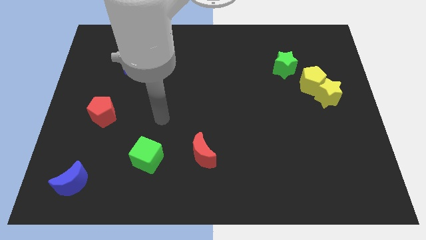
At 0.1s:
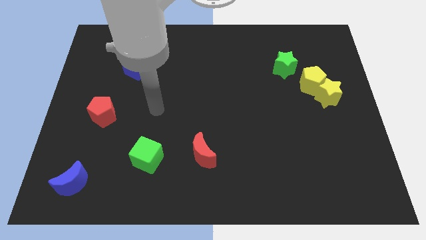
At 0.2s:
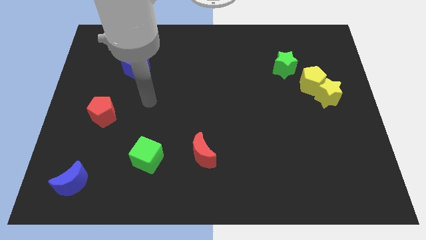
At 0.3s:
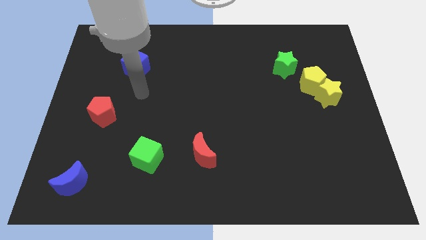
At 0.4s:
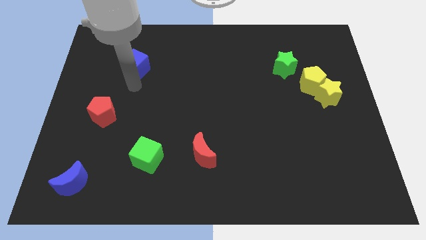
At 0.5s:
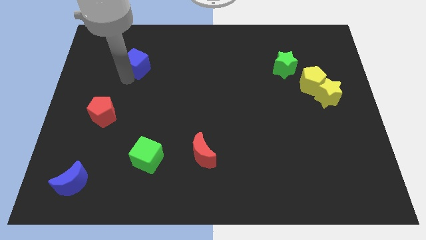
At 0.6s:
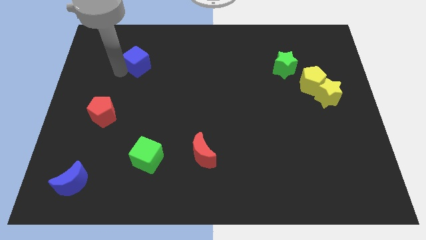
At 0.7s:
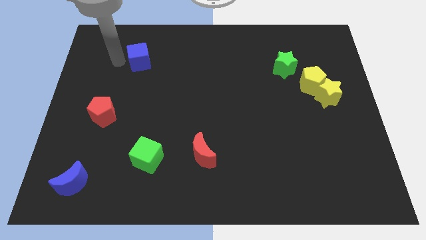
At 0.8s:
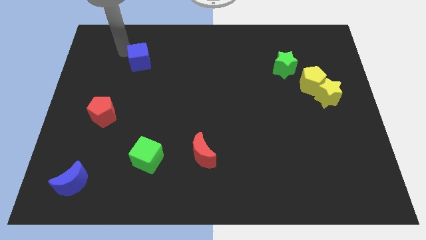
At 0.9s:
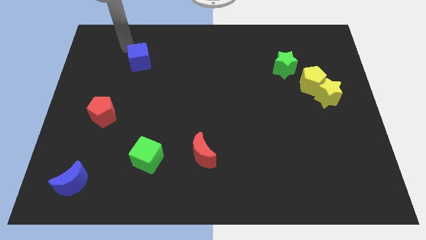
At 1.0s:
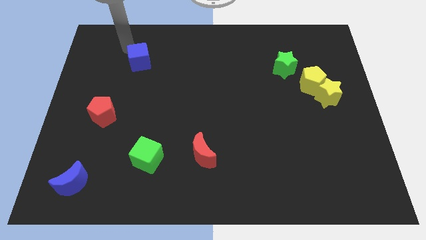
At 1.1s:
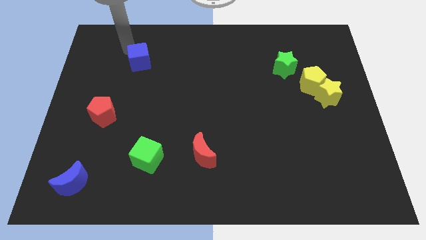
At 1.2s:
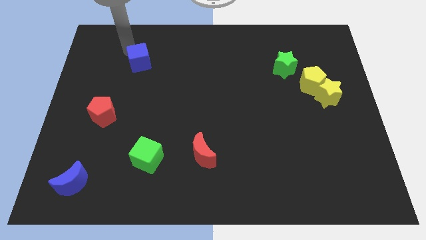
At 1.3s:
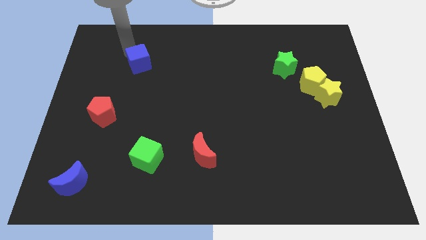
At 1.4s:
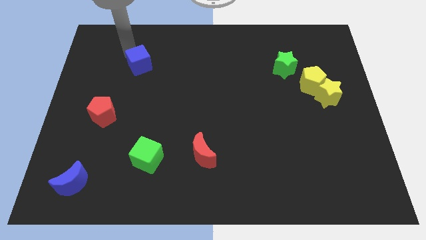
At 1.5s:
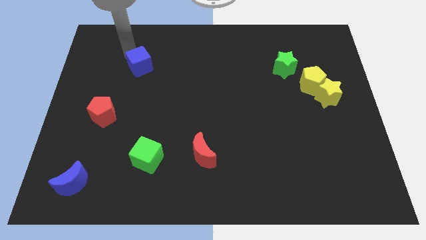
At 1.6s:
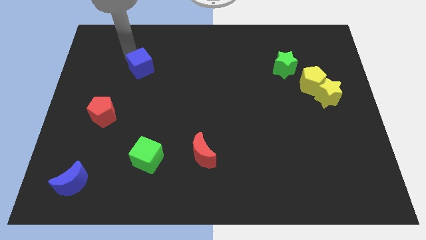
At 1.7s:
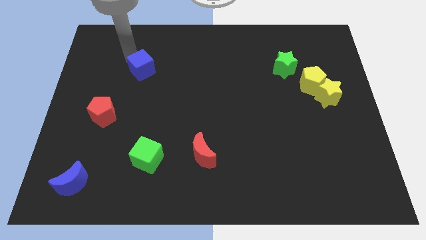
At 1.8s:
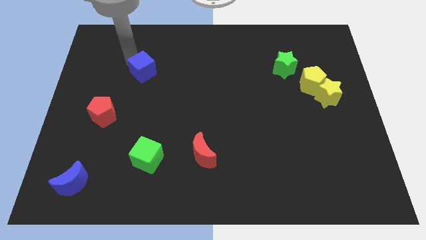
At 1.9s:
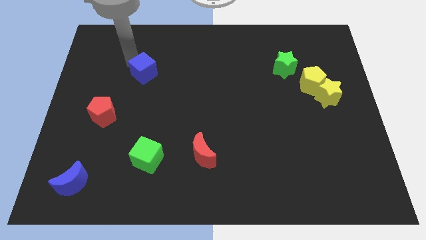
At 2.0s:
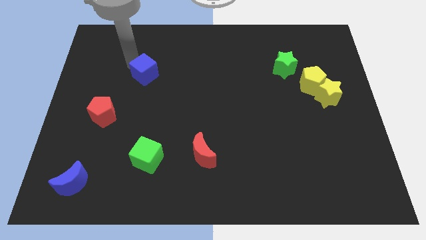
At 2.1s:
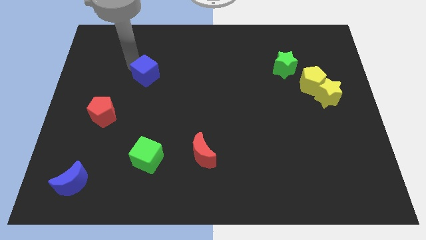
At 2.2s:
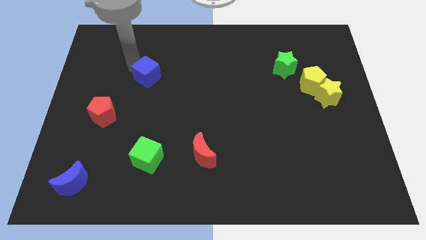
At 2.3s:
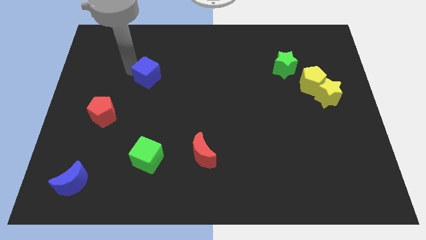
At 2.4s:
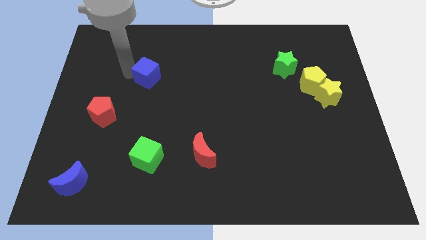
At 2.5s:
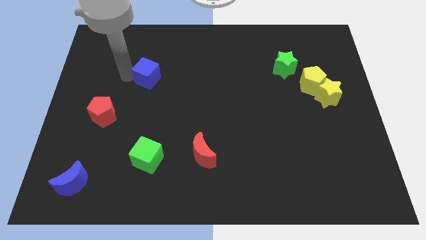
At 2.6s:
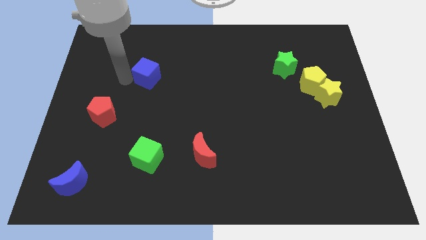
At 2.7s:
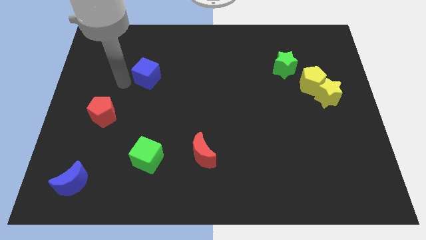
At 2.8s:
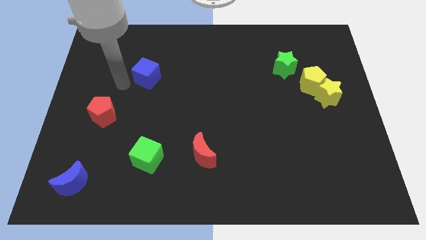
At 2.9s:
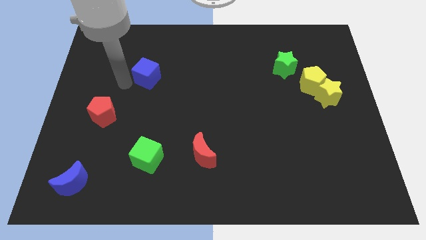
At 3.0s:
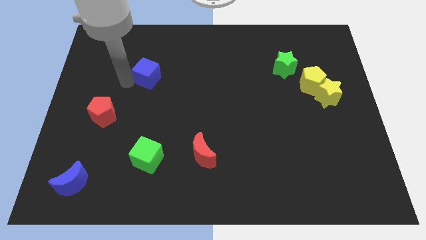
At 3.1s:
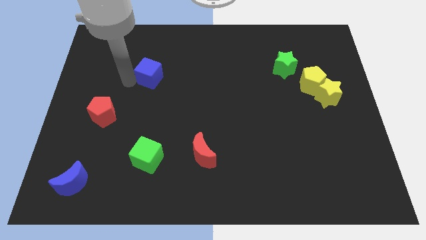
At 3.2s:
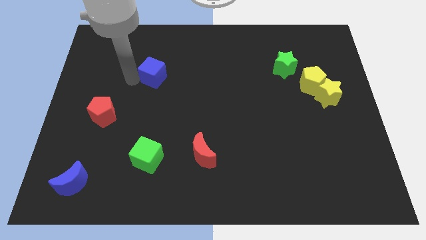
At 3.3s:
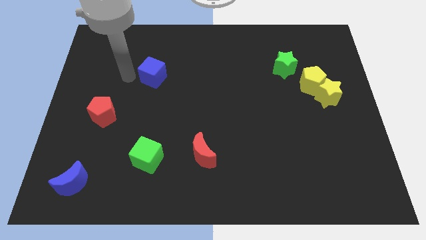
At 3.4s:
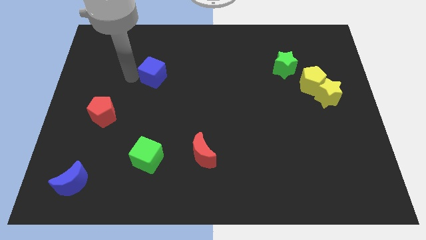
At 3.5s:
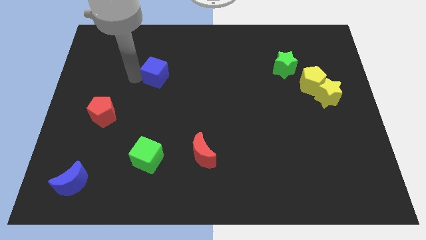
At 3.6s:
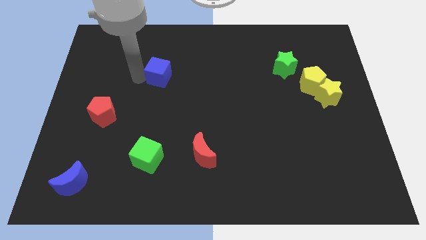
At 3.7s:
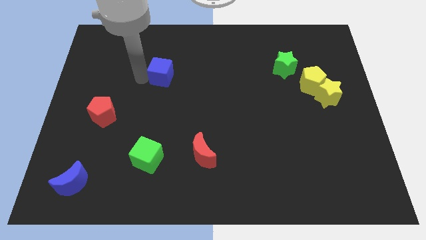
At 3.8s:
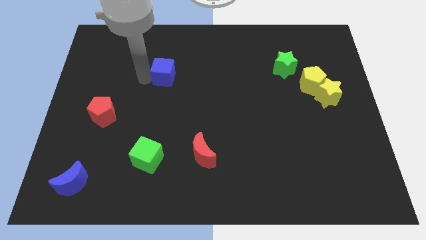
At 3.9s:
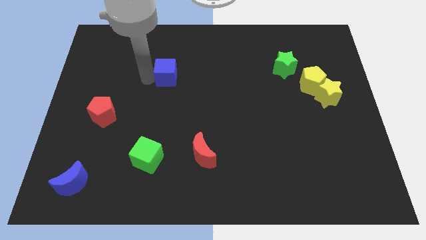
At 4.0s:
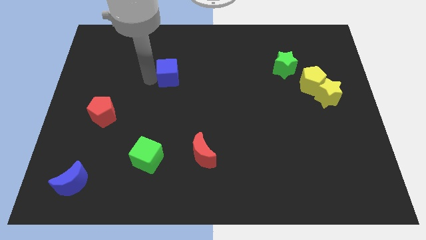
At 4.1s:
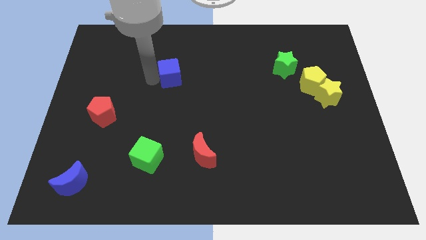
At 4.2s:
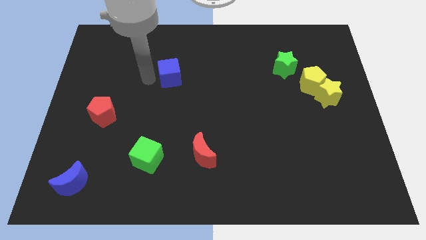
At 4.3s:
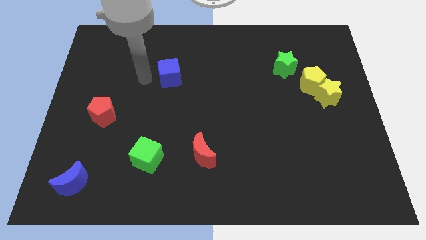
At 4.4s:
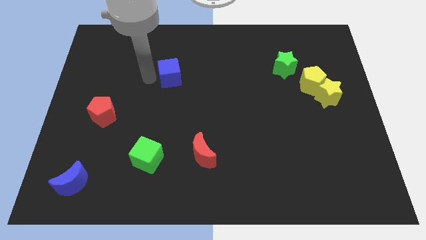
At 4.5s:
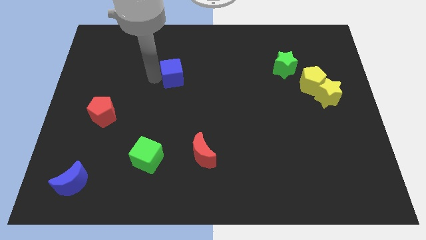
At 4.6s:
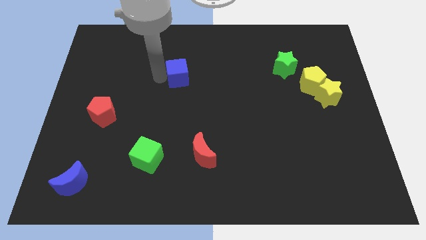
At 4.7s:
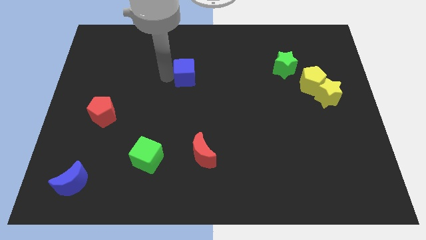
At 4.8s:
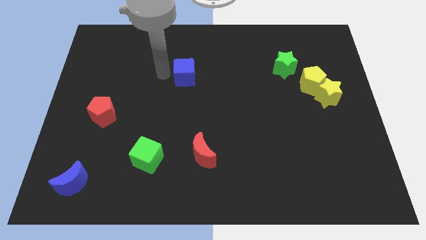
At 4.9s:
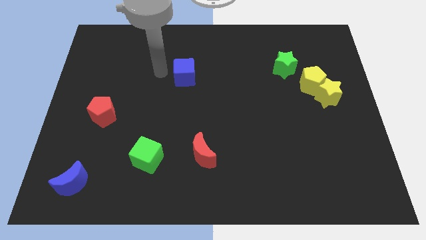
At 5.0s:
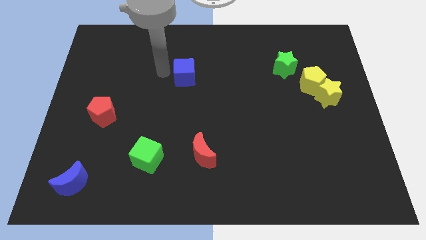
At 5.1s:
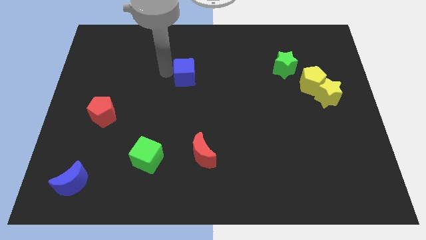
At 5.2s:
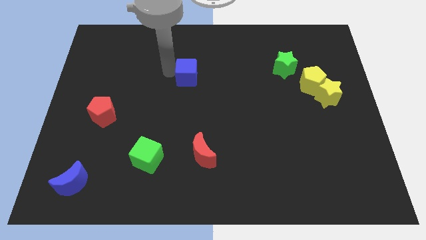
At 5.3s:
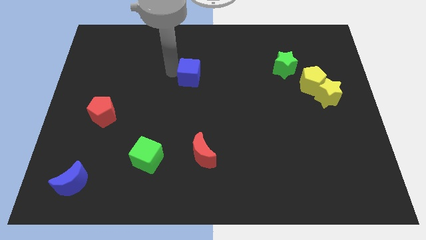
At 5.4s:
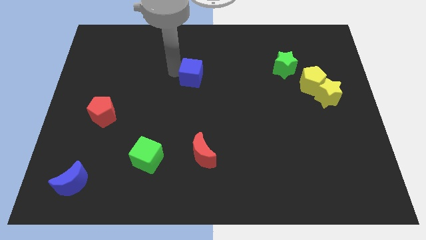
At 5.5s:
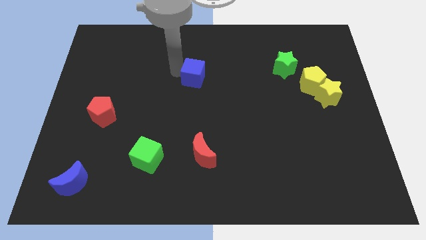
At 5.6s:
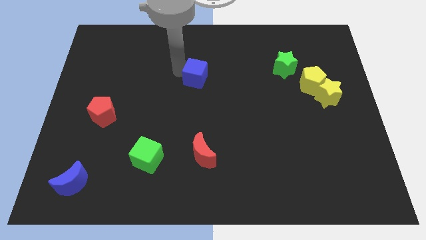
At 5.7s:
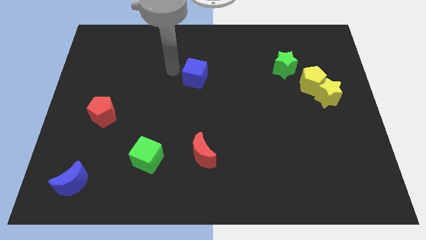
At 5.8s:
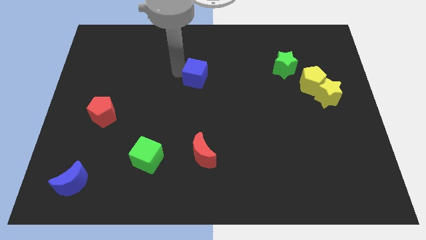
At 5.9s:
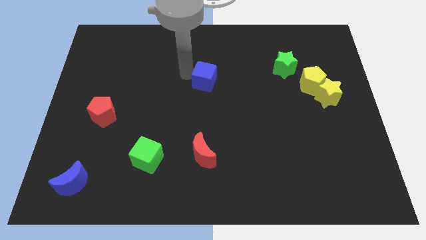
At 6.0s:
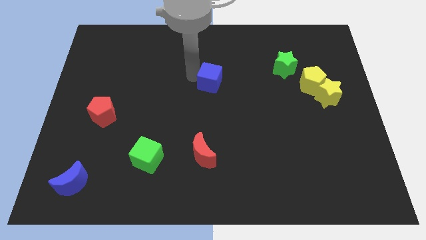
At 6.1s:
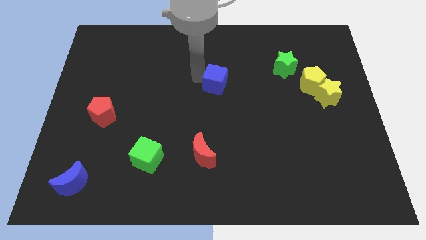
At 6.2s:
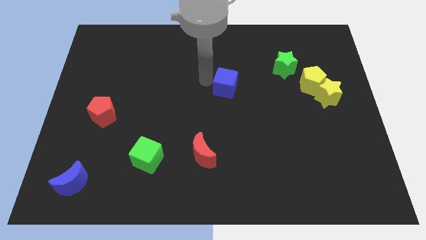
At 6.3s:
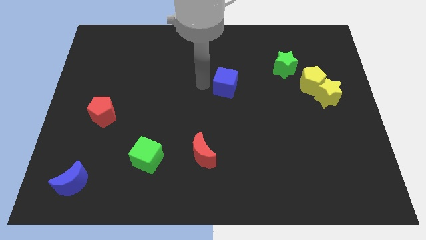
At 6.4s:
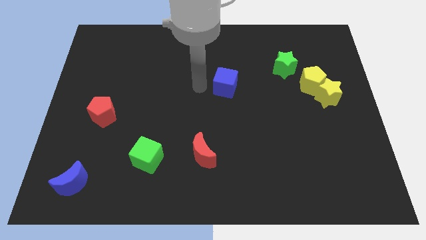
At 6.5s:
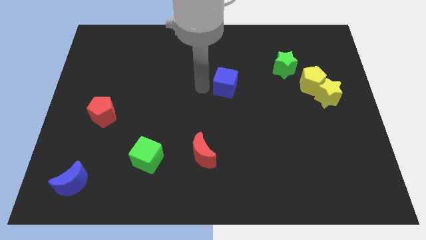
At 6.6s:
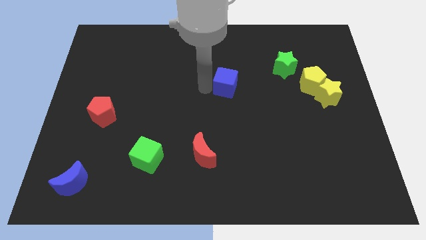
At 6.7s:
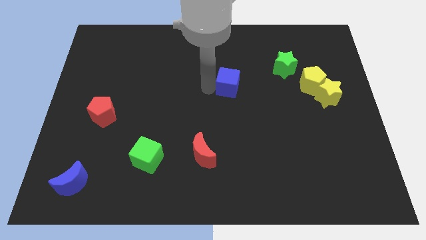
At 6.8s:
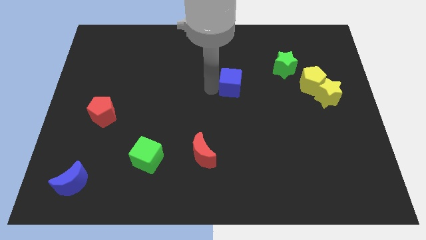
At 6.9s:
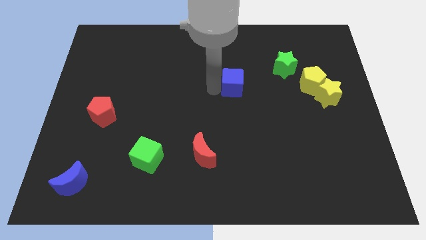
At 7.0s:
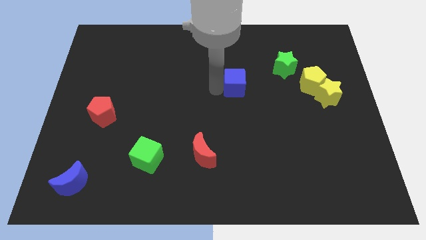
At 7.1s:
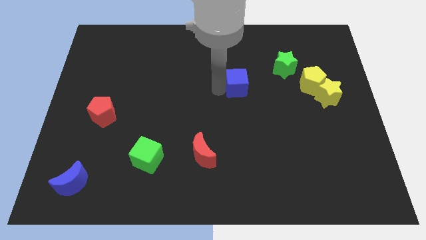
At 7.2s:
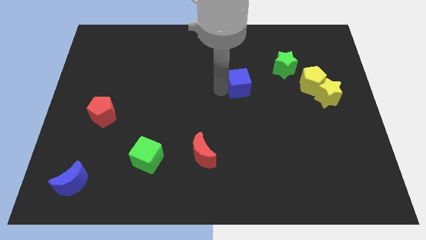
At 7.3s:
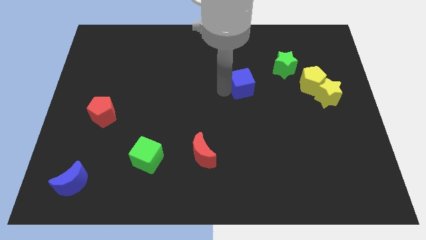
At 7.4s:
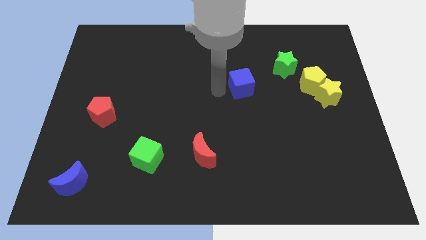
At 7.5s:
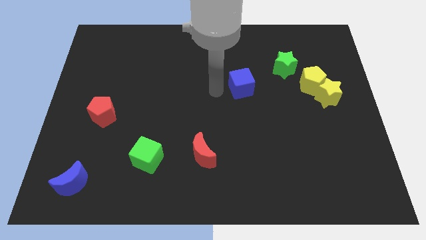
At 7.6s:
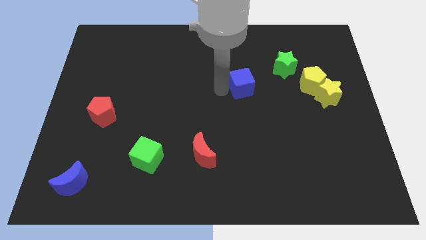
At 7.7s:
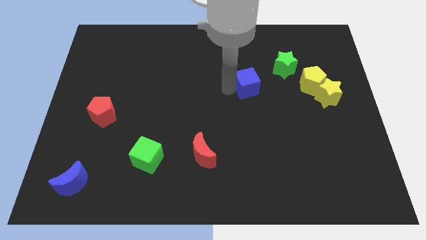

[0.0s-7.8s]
put the blue cube to the bottom left side of the green star

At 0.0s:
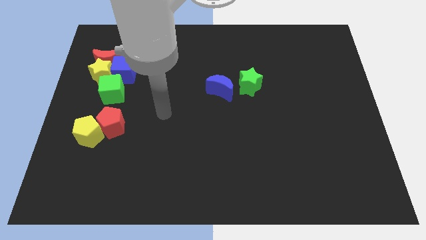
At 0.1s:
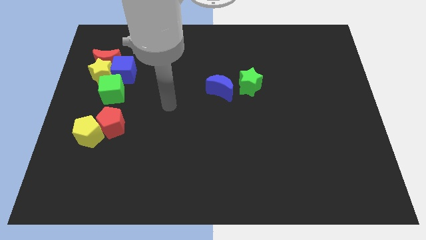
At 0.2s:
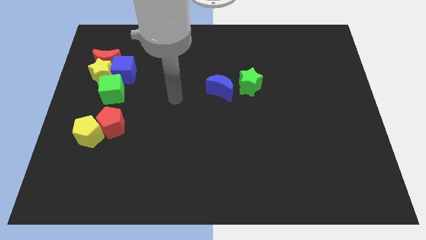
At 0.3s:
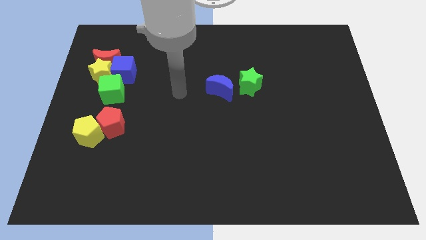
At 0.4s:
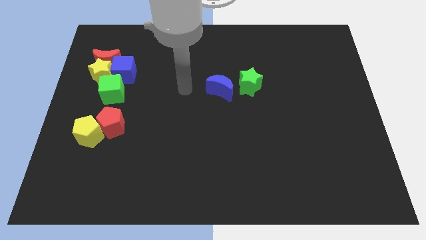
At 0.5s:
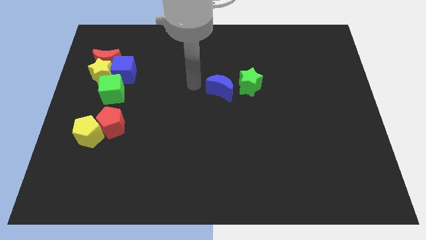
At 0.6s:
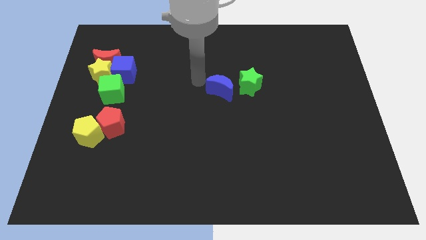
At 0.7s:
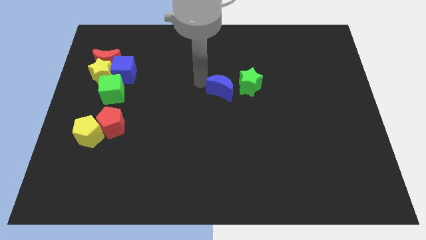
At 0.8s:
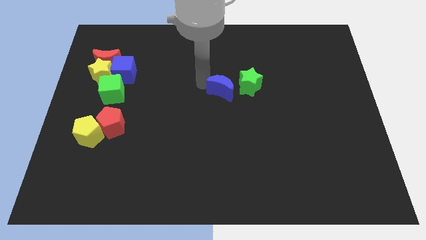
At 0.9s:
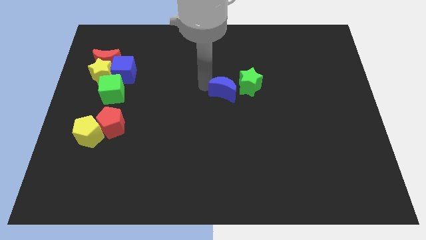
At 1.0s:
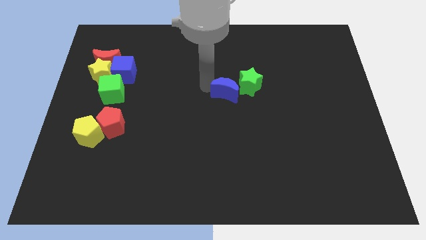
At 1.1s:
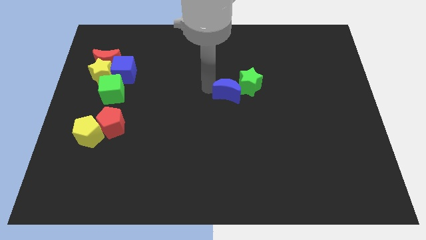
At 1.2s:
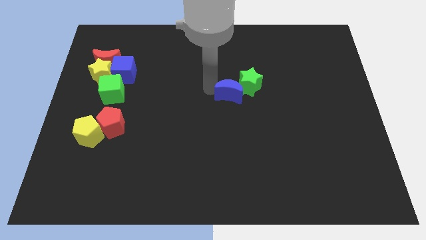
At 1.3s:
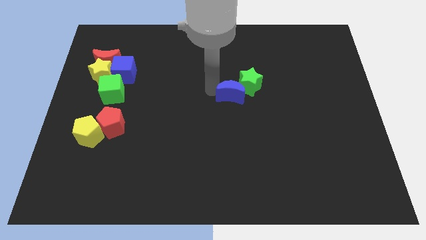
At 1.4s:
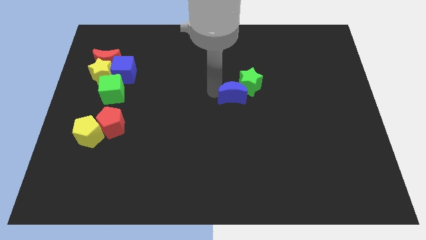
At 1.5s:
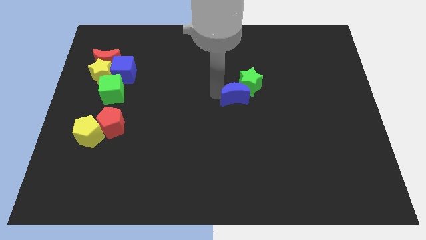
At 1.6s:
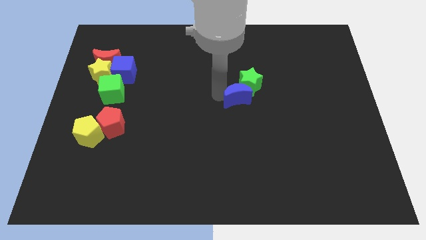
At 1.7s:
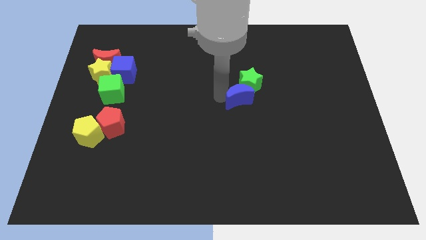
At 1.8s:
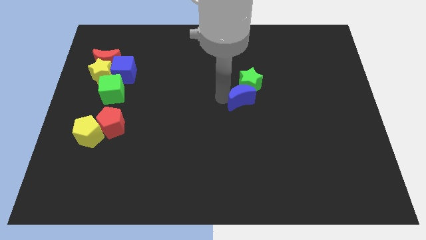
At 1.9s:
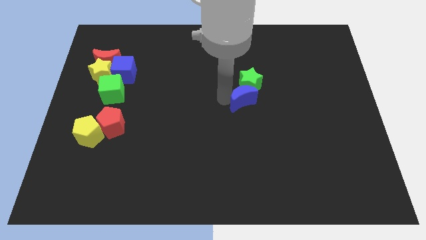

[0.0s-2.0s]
move the blue moon diagonally down and to the right of the green star
